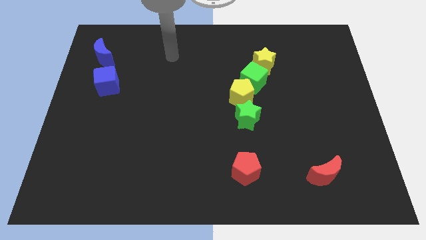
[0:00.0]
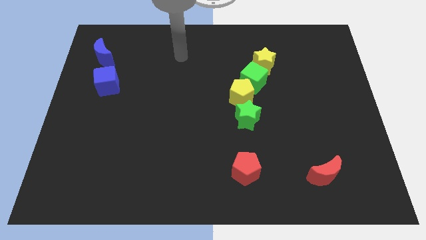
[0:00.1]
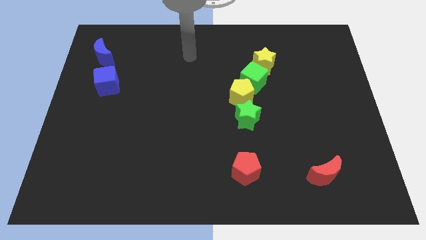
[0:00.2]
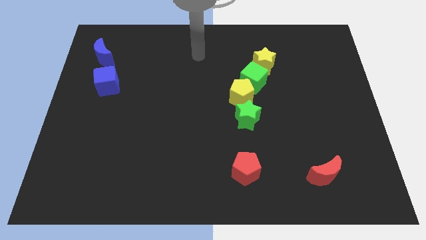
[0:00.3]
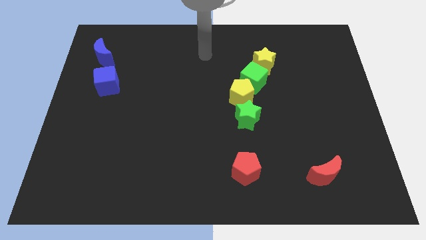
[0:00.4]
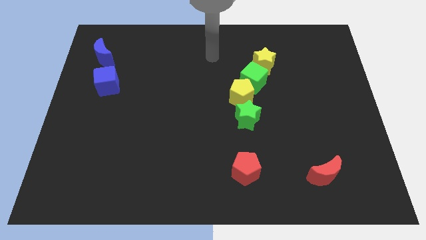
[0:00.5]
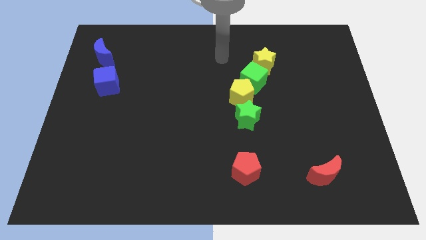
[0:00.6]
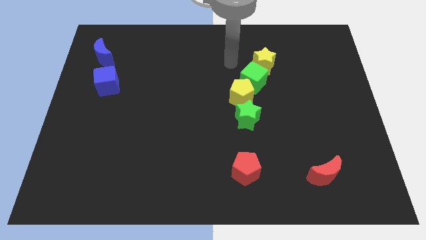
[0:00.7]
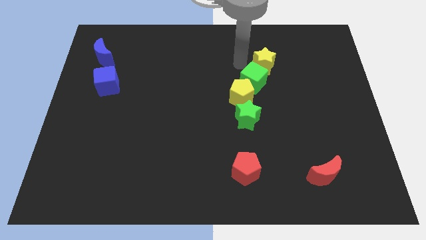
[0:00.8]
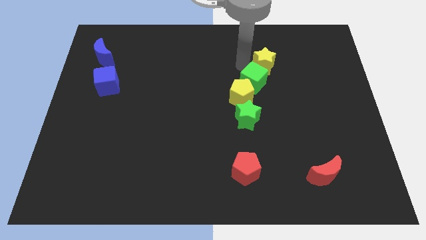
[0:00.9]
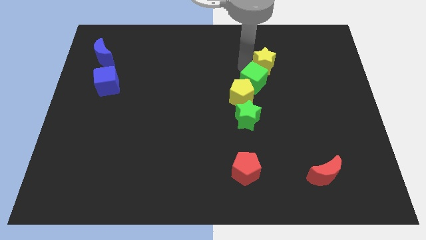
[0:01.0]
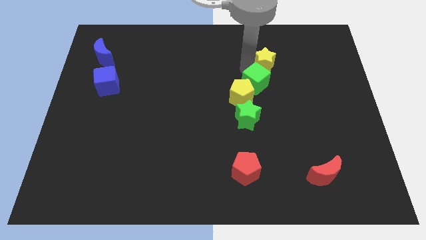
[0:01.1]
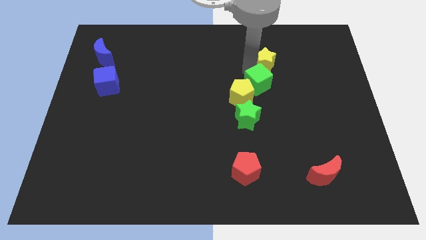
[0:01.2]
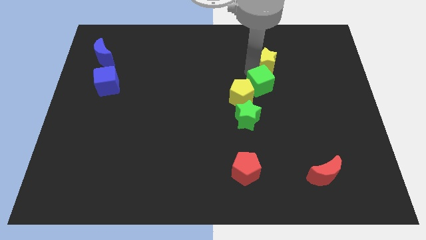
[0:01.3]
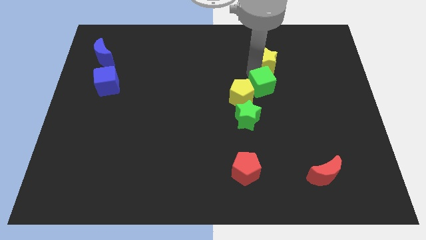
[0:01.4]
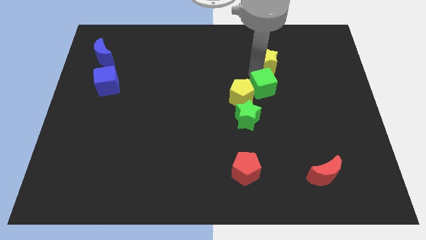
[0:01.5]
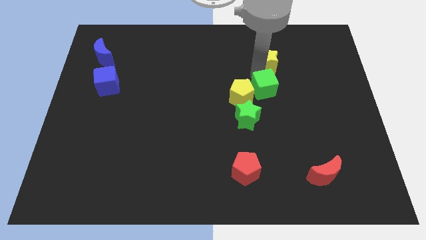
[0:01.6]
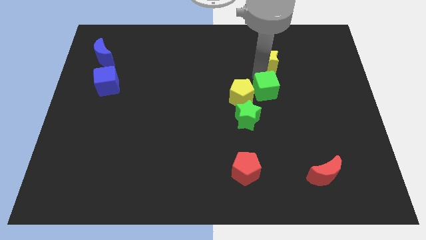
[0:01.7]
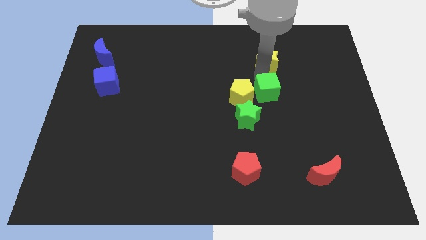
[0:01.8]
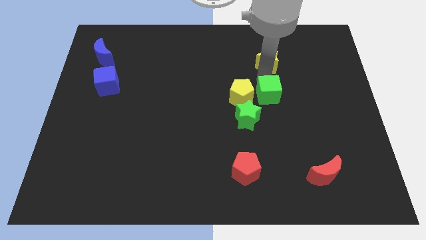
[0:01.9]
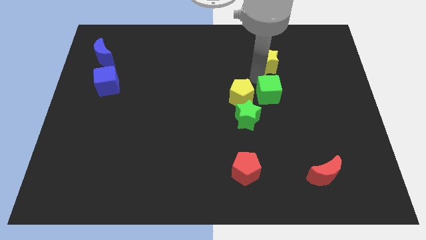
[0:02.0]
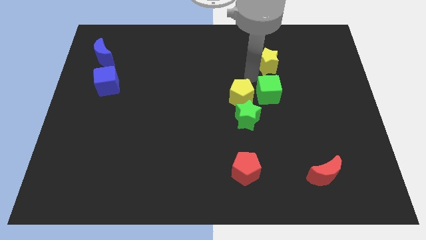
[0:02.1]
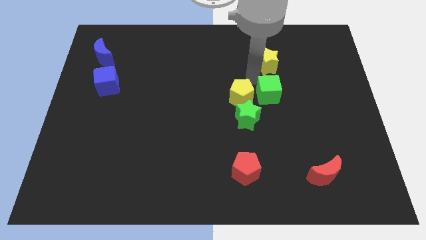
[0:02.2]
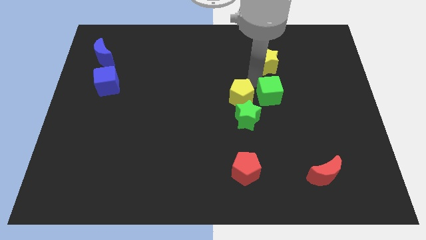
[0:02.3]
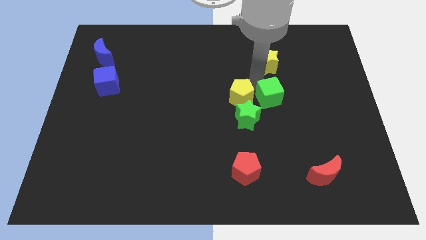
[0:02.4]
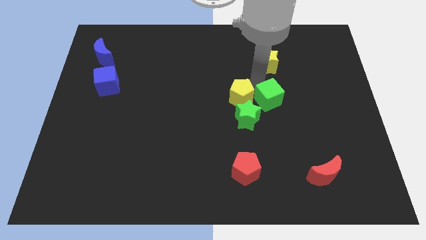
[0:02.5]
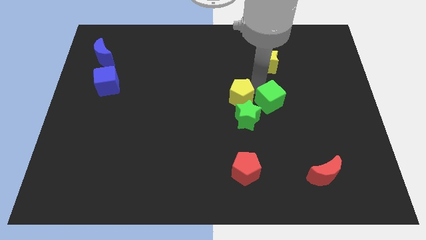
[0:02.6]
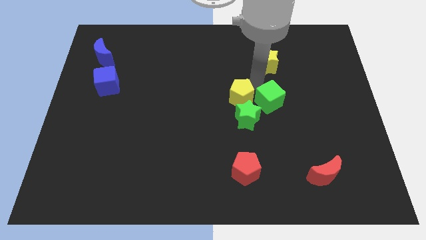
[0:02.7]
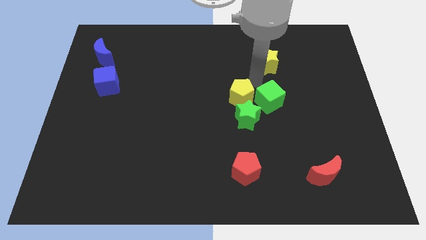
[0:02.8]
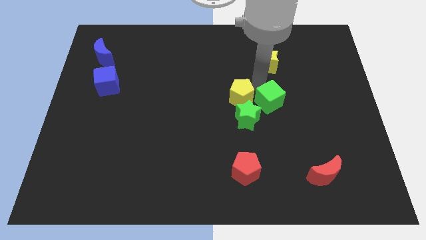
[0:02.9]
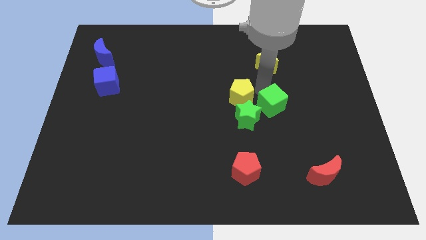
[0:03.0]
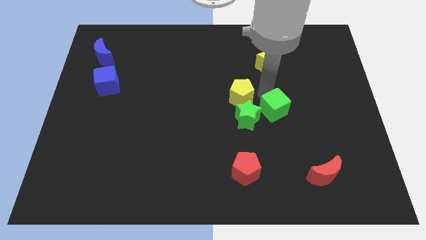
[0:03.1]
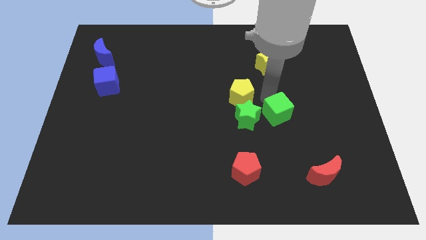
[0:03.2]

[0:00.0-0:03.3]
pull the green cube apart from the yellow pentagon and yellow star

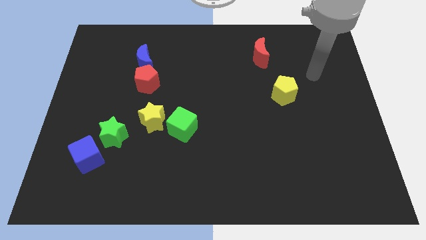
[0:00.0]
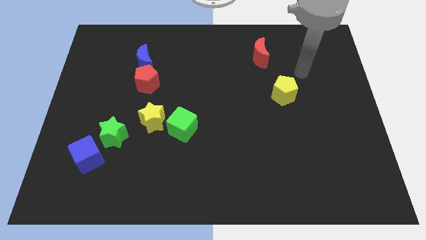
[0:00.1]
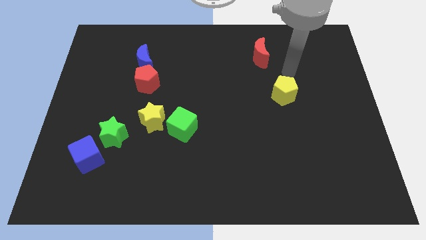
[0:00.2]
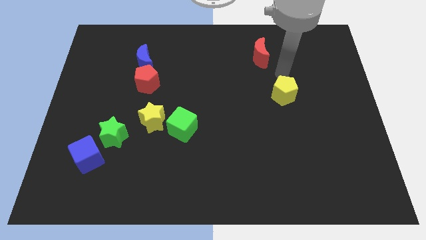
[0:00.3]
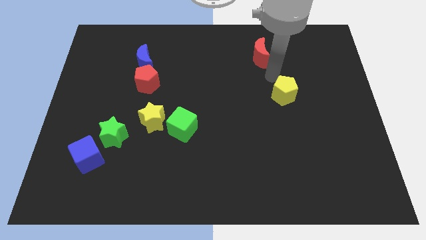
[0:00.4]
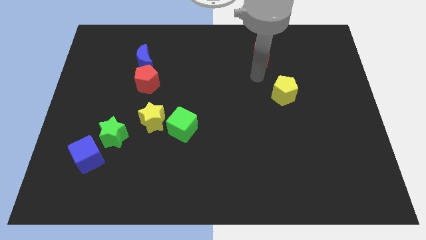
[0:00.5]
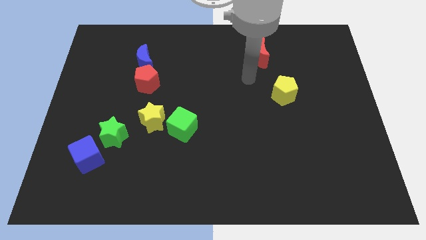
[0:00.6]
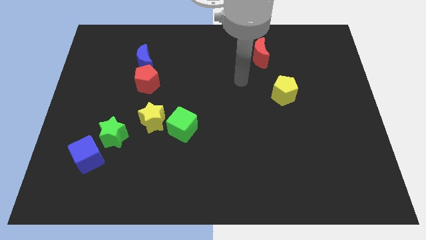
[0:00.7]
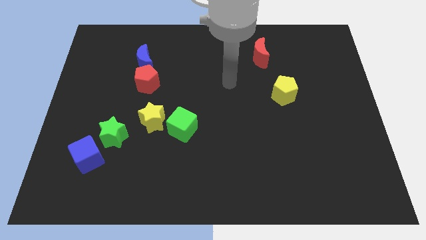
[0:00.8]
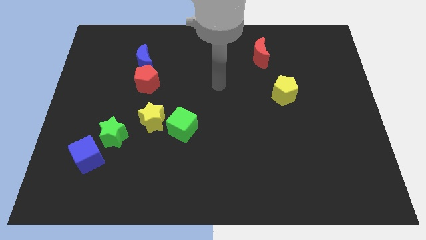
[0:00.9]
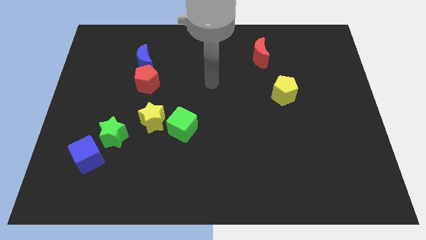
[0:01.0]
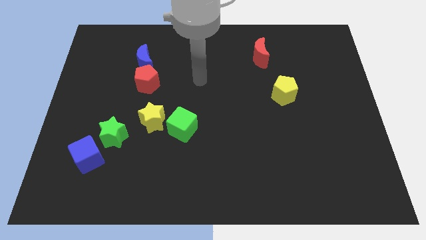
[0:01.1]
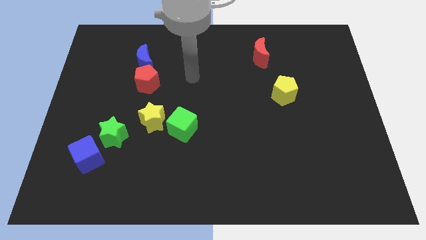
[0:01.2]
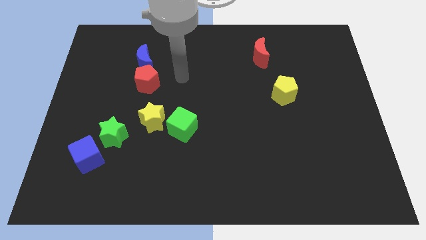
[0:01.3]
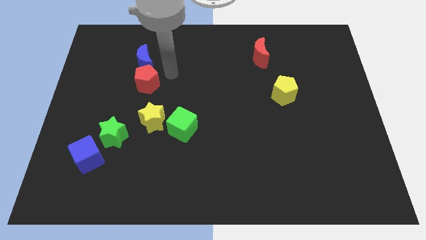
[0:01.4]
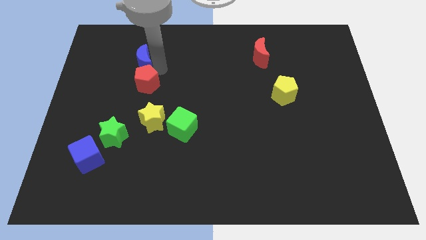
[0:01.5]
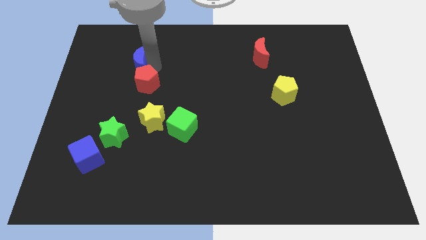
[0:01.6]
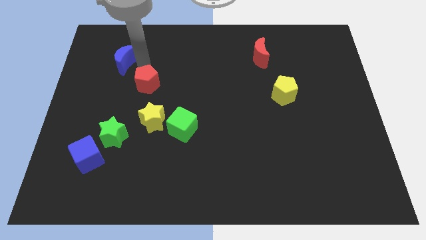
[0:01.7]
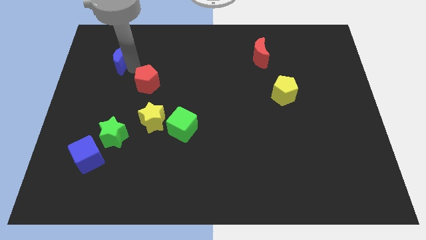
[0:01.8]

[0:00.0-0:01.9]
separate the red pentagon from the blue moon

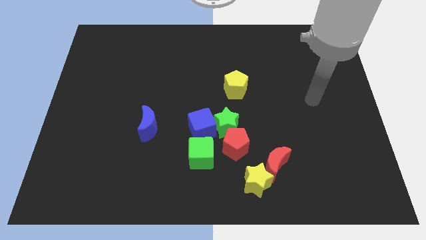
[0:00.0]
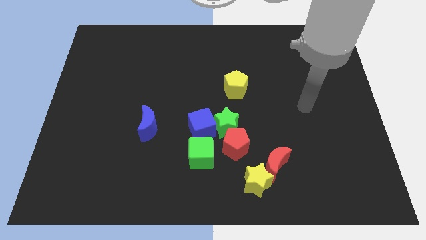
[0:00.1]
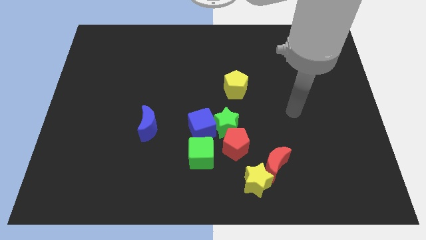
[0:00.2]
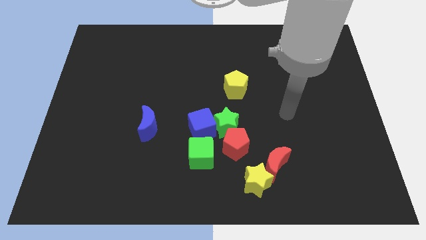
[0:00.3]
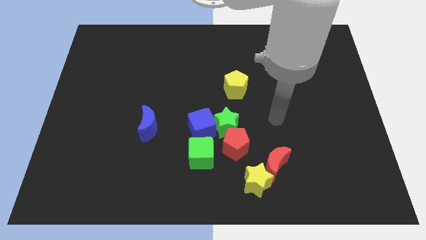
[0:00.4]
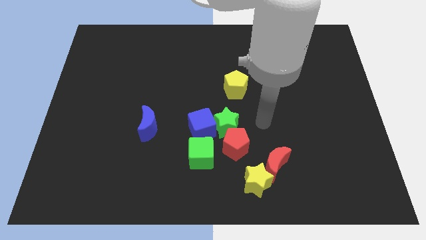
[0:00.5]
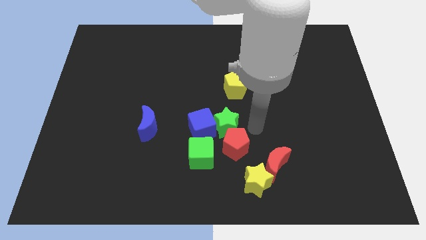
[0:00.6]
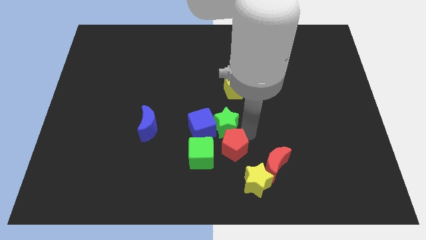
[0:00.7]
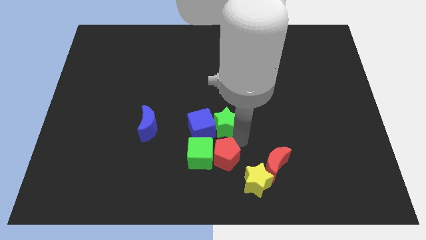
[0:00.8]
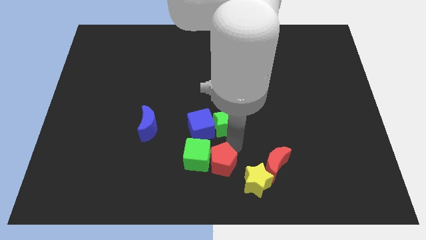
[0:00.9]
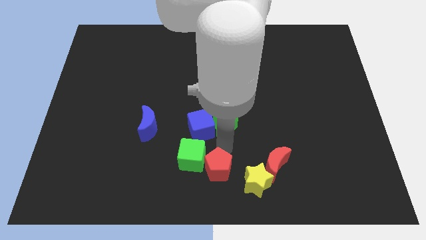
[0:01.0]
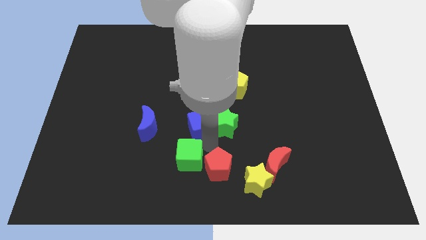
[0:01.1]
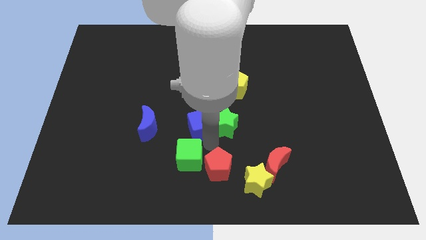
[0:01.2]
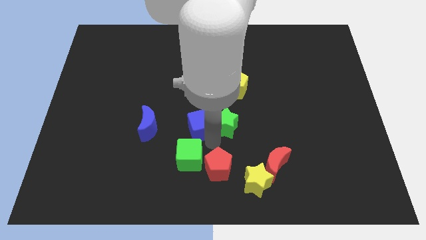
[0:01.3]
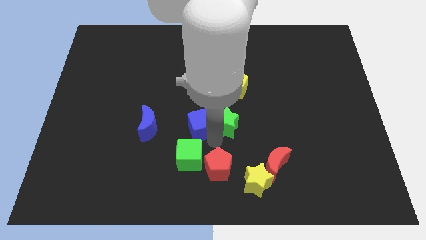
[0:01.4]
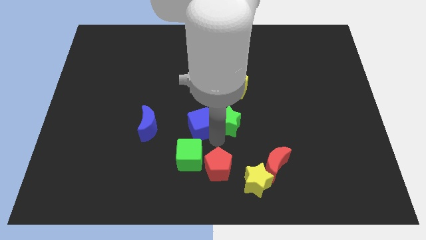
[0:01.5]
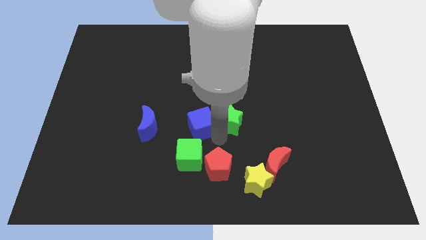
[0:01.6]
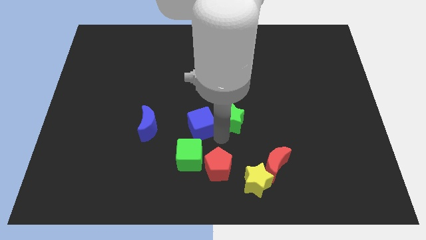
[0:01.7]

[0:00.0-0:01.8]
pull the green star apart from the red pentagon, blue cube, and green cube

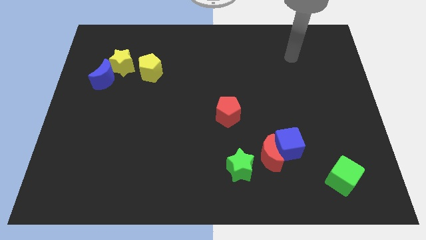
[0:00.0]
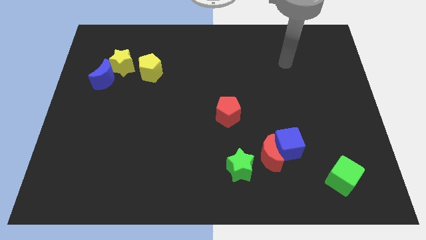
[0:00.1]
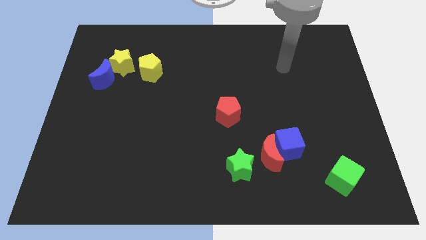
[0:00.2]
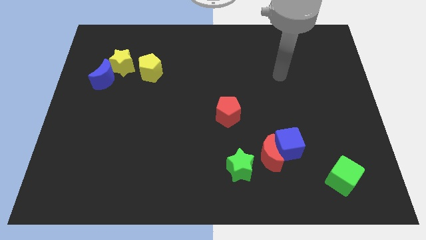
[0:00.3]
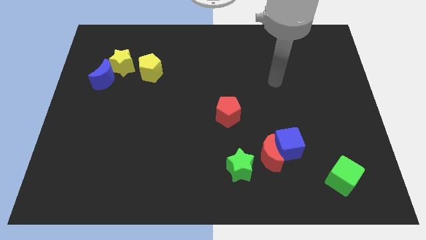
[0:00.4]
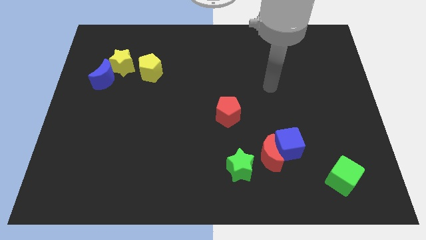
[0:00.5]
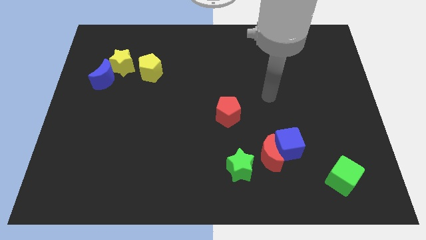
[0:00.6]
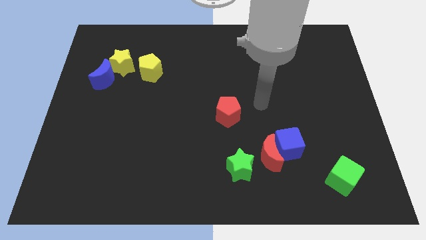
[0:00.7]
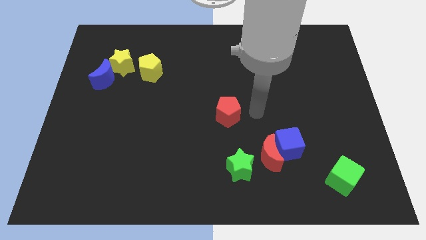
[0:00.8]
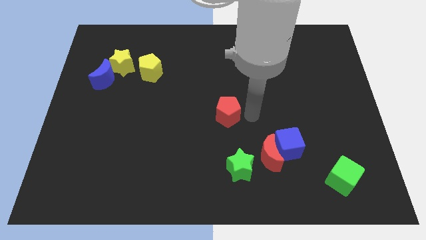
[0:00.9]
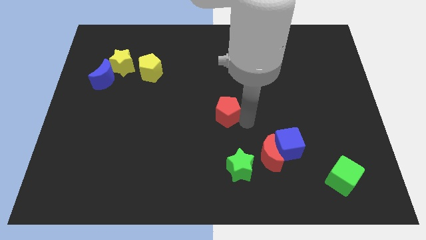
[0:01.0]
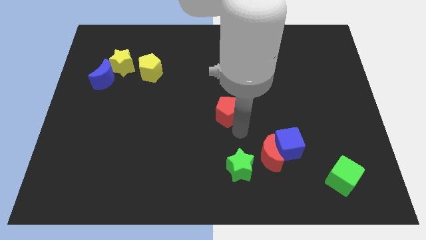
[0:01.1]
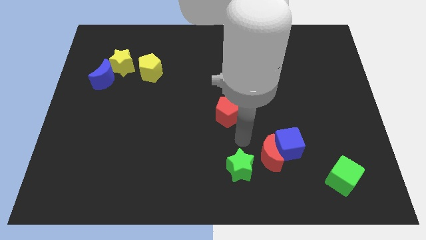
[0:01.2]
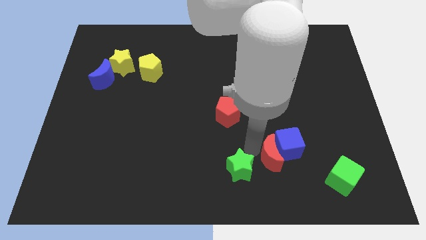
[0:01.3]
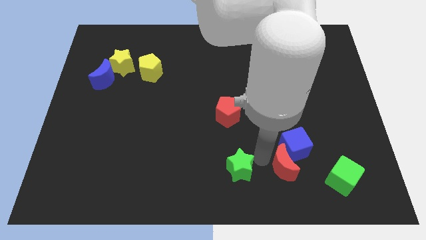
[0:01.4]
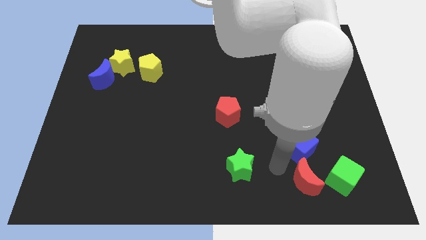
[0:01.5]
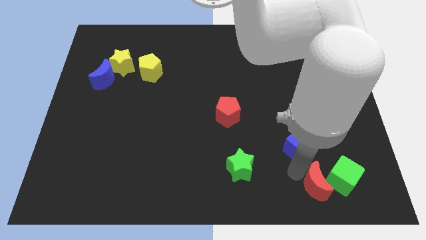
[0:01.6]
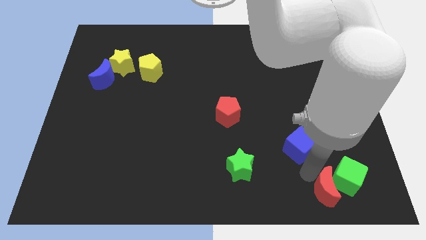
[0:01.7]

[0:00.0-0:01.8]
separate the blue cube from the red moon

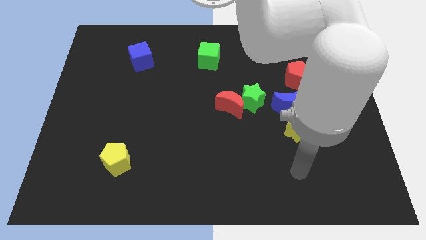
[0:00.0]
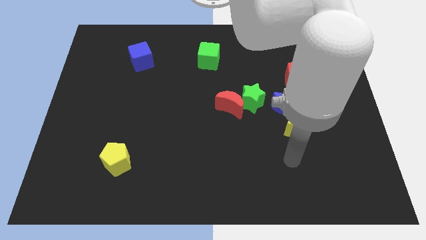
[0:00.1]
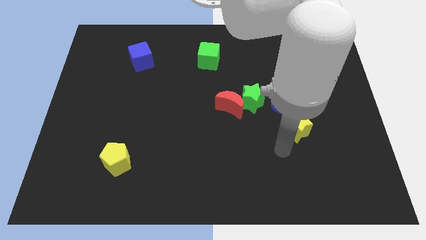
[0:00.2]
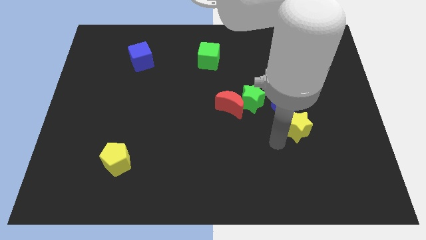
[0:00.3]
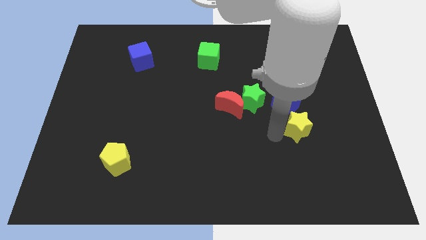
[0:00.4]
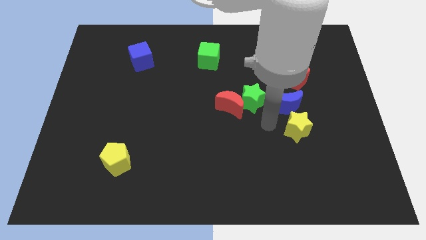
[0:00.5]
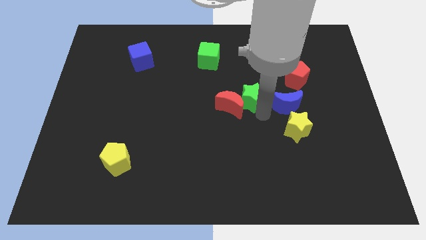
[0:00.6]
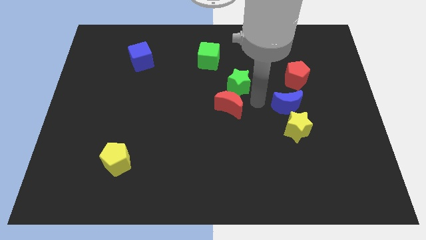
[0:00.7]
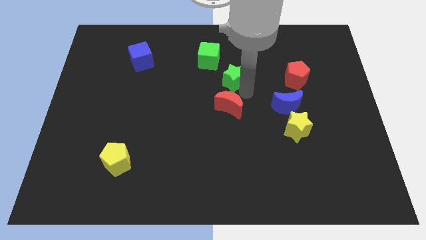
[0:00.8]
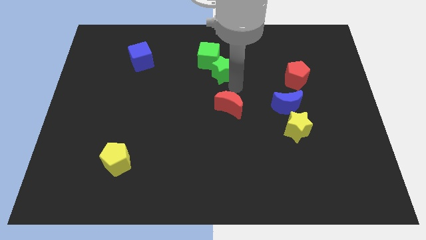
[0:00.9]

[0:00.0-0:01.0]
move the red moon away from the green star
